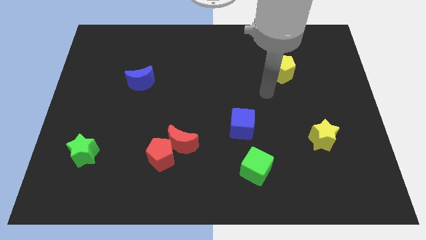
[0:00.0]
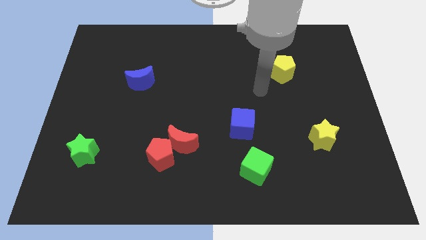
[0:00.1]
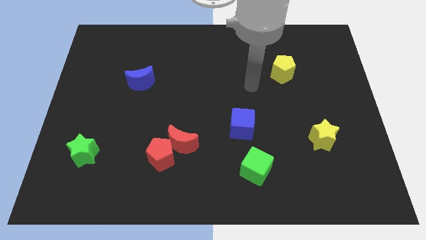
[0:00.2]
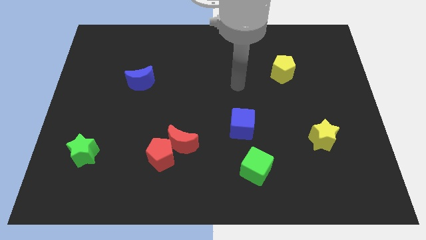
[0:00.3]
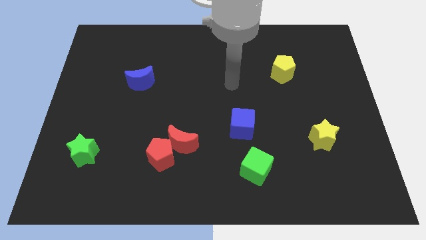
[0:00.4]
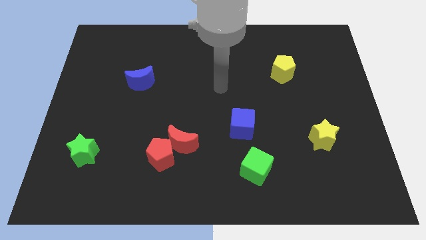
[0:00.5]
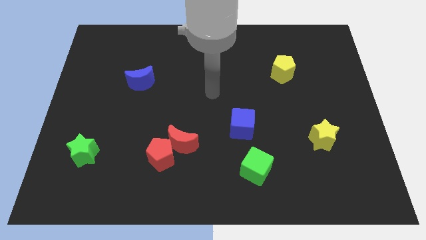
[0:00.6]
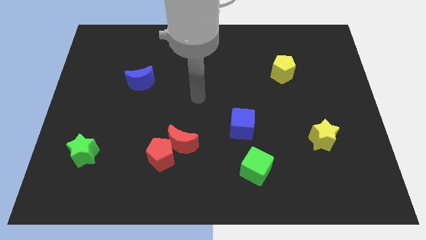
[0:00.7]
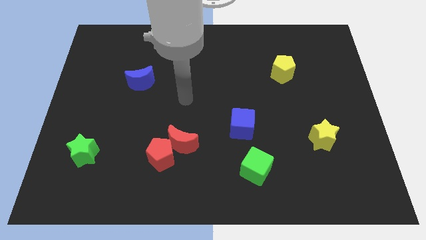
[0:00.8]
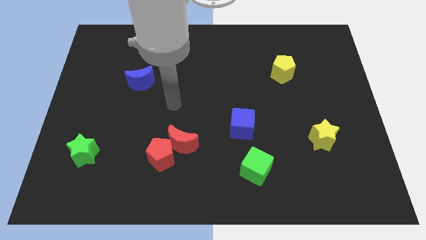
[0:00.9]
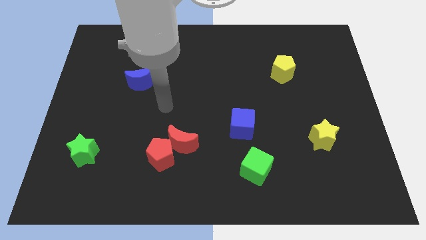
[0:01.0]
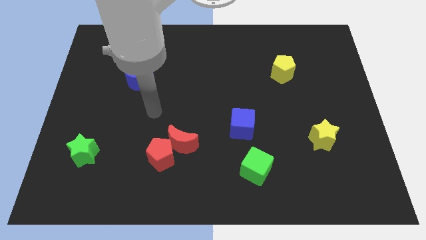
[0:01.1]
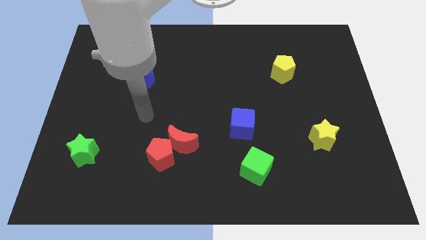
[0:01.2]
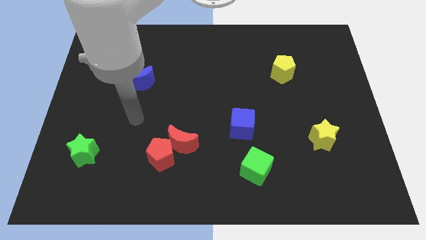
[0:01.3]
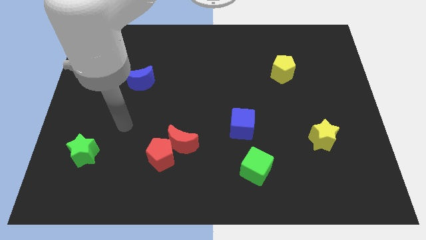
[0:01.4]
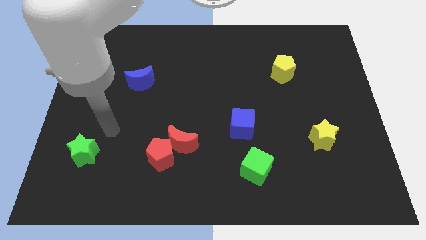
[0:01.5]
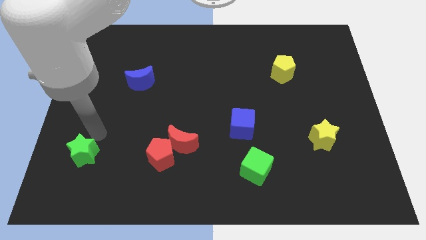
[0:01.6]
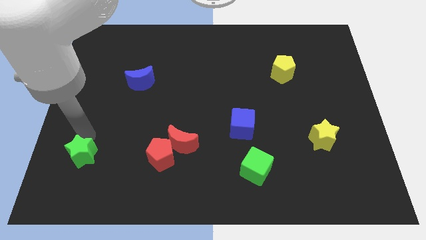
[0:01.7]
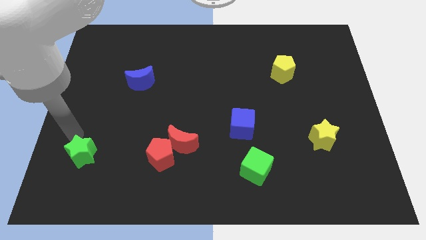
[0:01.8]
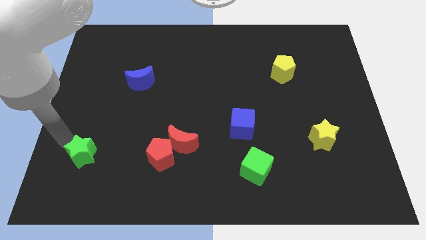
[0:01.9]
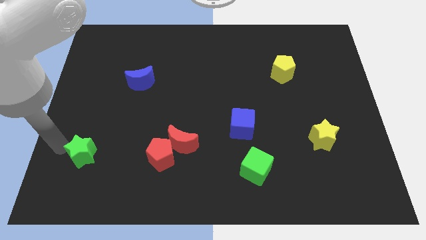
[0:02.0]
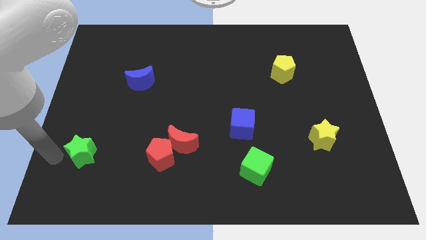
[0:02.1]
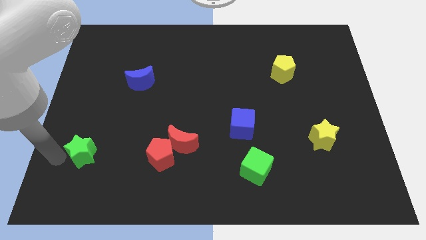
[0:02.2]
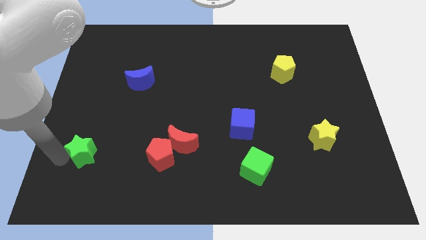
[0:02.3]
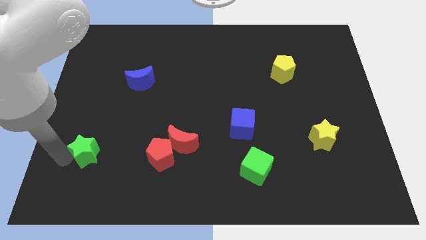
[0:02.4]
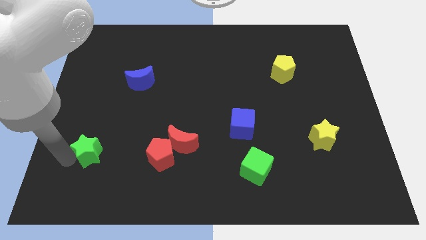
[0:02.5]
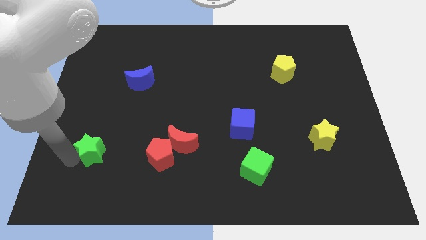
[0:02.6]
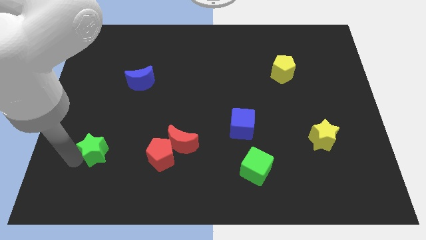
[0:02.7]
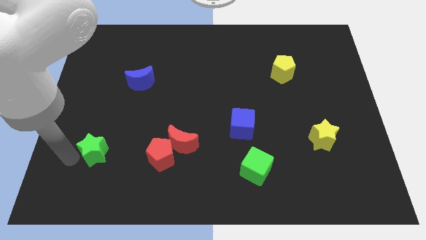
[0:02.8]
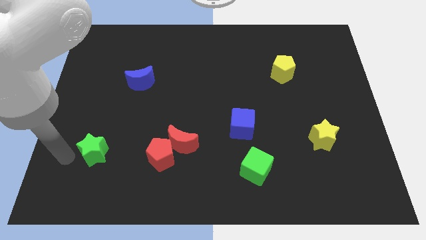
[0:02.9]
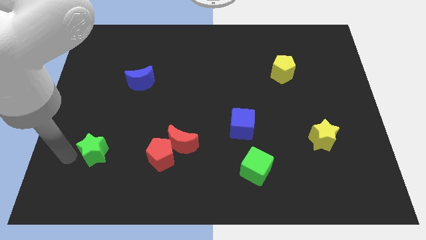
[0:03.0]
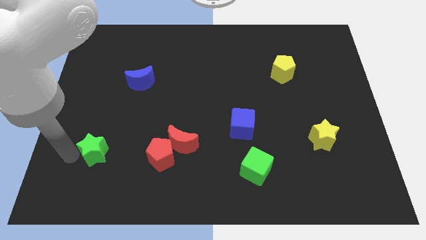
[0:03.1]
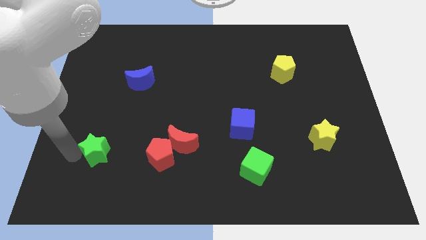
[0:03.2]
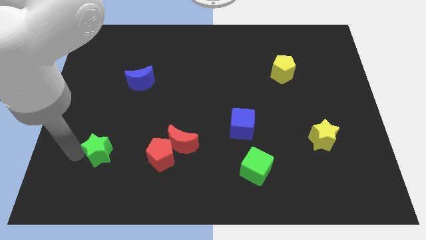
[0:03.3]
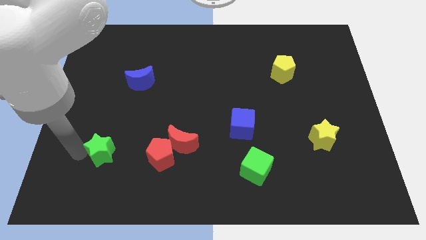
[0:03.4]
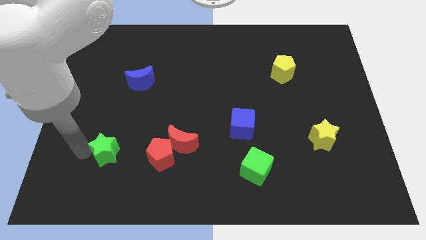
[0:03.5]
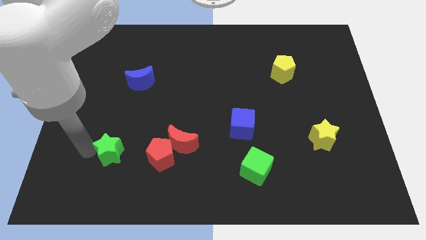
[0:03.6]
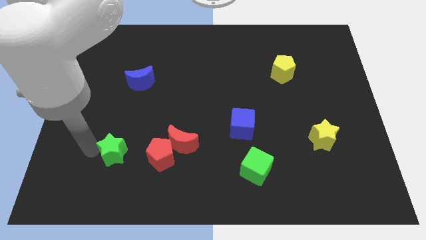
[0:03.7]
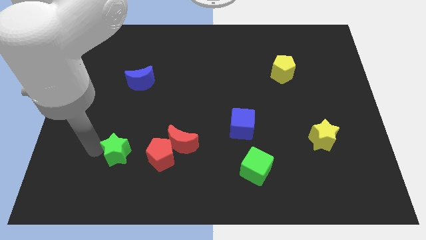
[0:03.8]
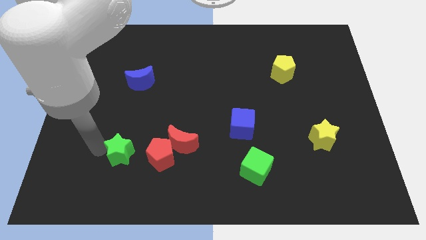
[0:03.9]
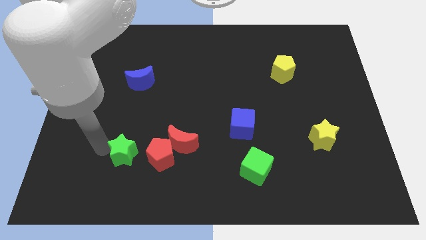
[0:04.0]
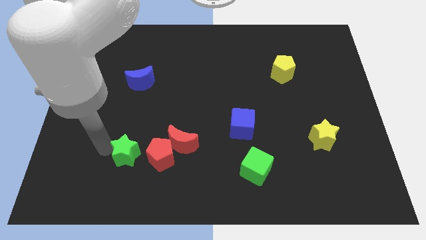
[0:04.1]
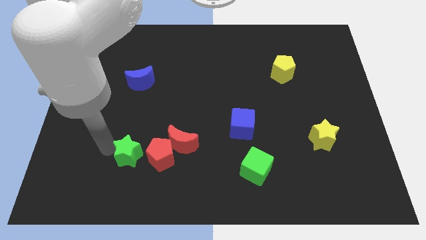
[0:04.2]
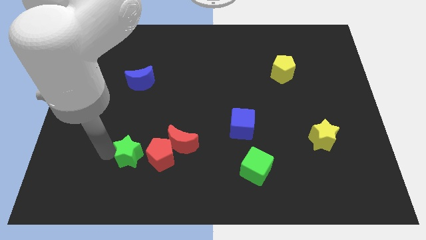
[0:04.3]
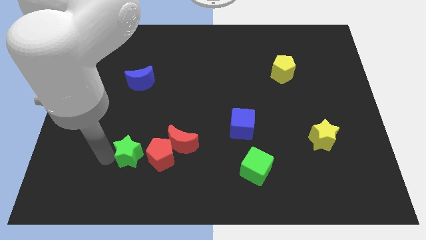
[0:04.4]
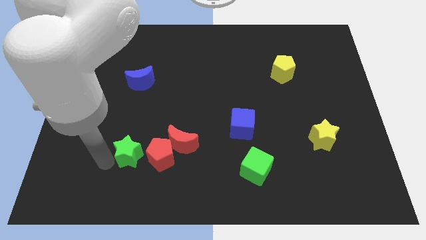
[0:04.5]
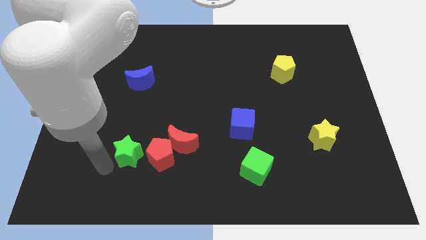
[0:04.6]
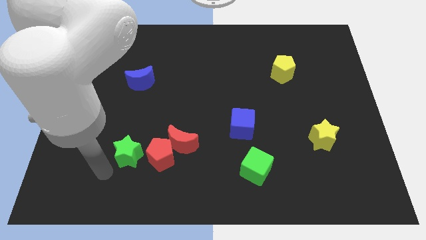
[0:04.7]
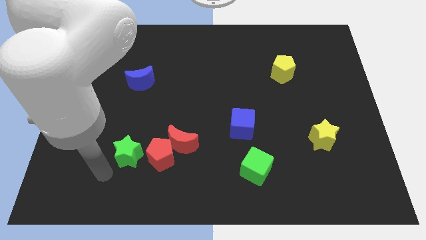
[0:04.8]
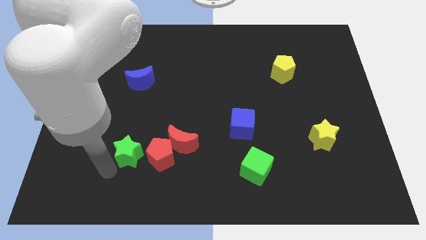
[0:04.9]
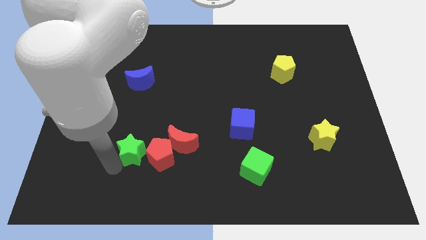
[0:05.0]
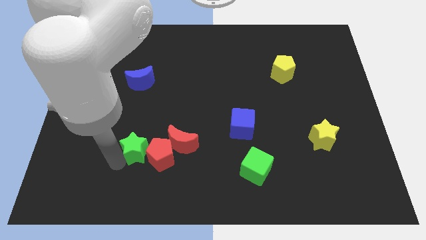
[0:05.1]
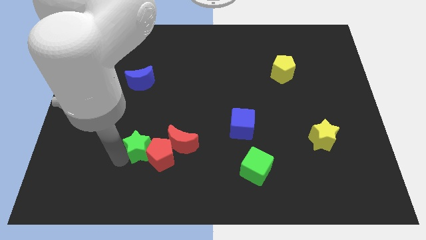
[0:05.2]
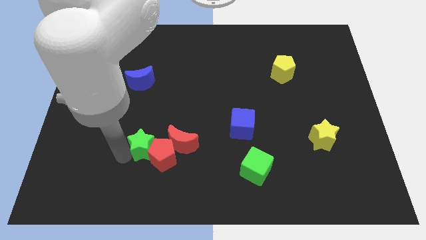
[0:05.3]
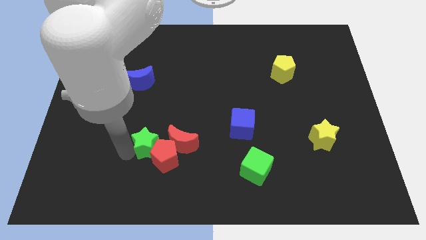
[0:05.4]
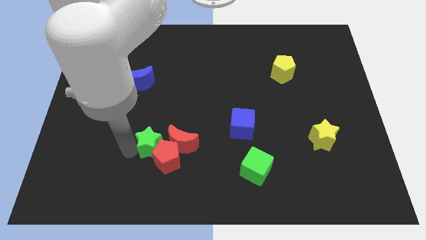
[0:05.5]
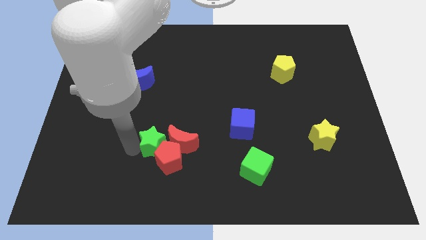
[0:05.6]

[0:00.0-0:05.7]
slide the green star next to the red moon

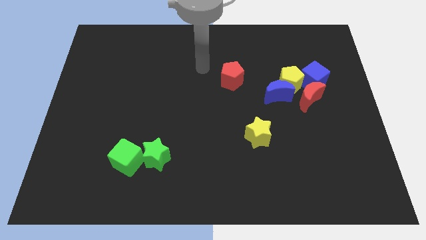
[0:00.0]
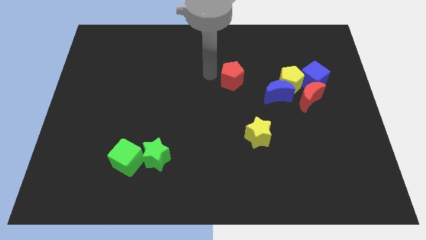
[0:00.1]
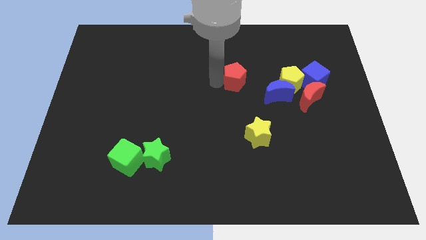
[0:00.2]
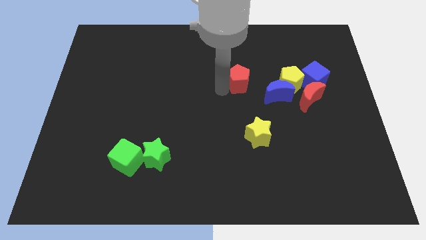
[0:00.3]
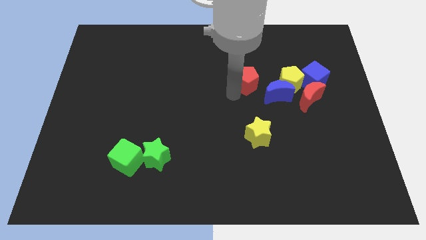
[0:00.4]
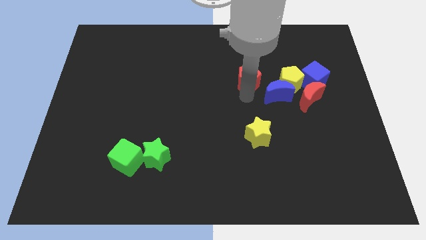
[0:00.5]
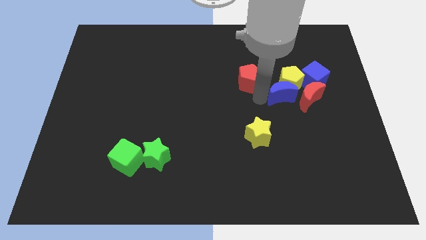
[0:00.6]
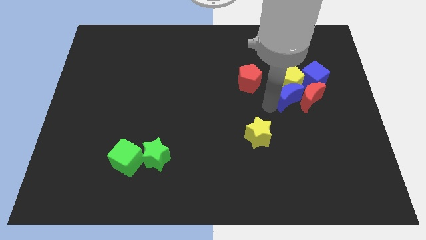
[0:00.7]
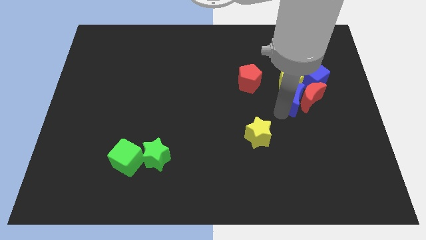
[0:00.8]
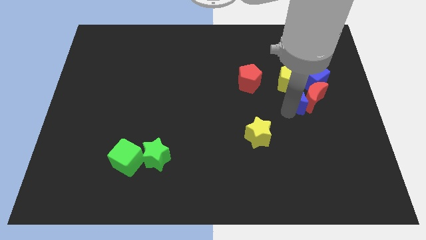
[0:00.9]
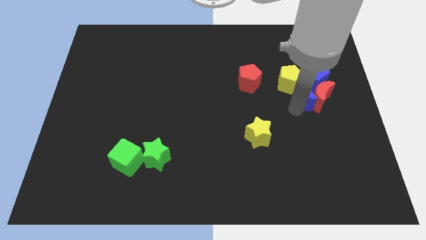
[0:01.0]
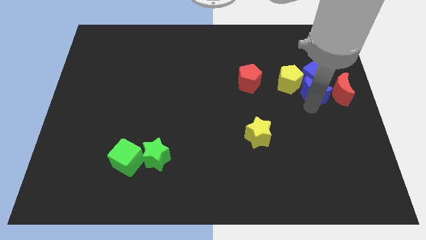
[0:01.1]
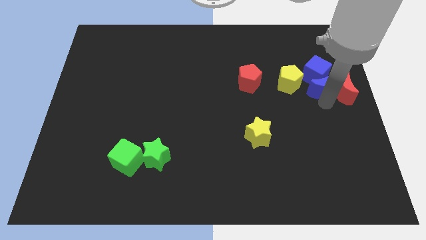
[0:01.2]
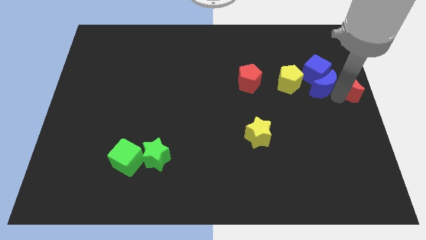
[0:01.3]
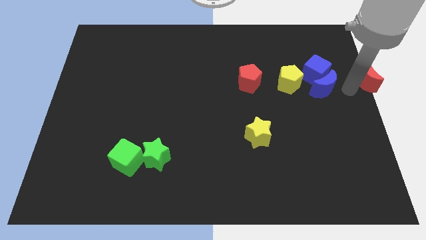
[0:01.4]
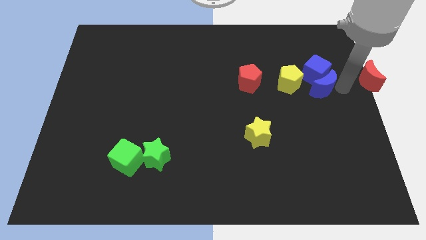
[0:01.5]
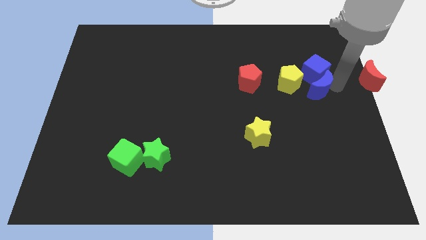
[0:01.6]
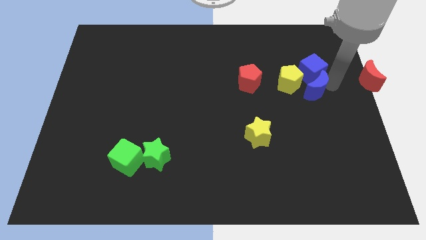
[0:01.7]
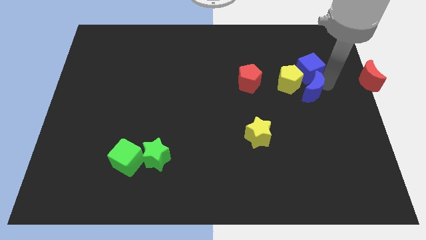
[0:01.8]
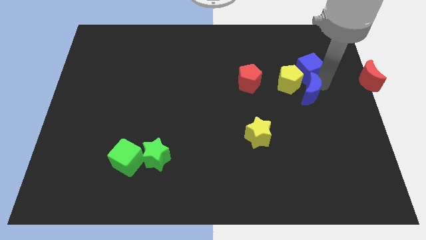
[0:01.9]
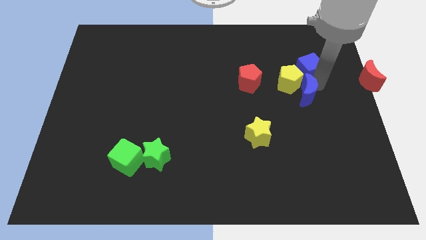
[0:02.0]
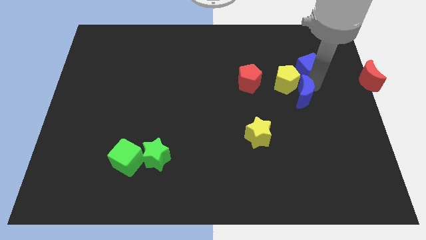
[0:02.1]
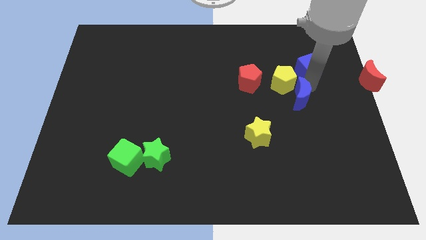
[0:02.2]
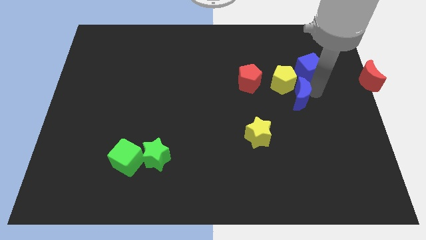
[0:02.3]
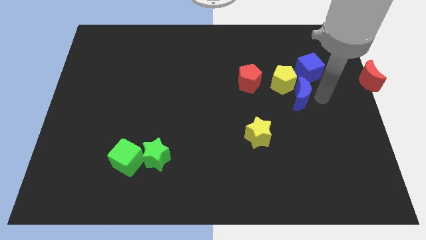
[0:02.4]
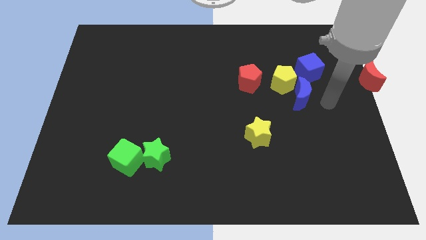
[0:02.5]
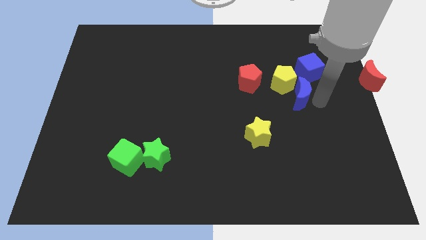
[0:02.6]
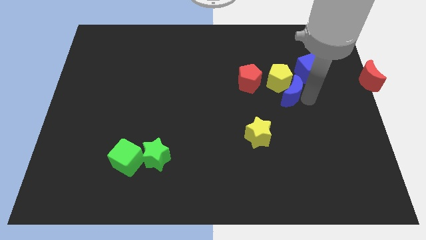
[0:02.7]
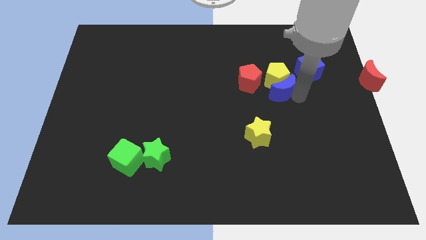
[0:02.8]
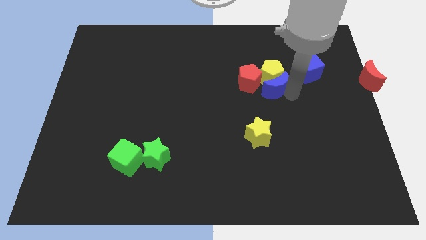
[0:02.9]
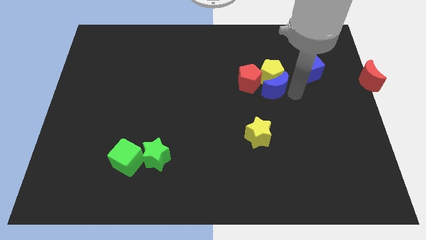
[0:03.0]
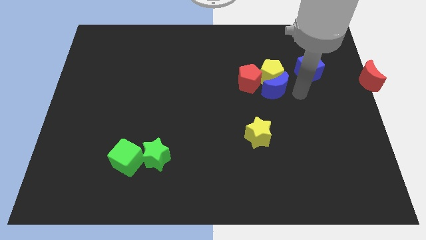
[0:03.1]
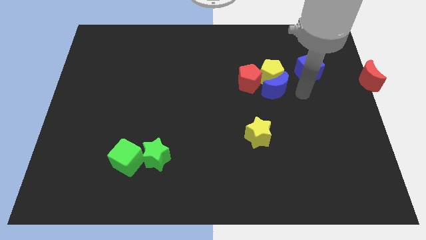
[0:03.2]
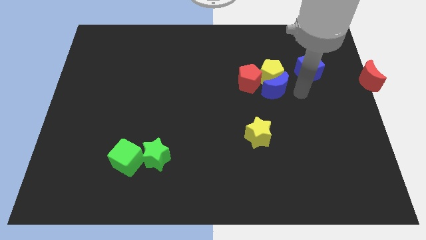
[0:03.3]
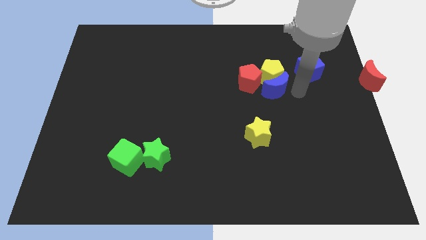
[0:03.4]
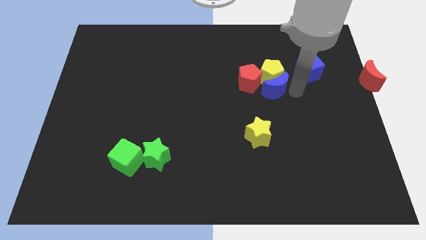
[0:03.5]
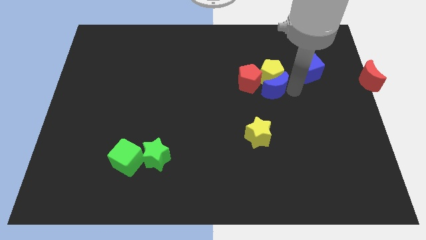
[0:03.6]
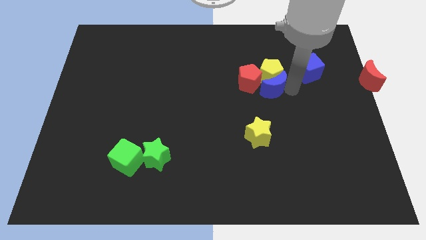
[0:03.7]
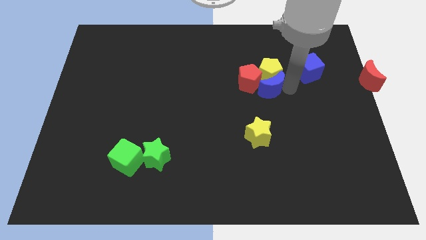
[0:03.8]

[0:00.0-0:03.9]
put the blue moon close to the red pentagon
